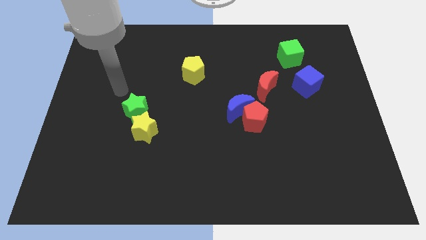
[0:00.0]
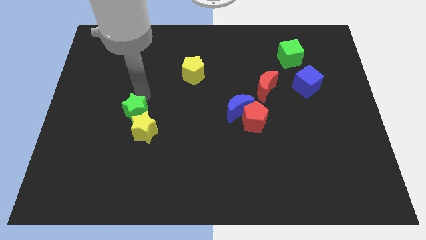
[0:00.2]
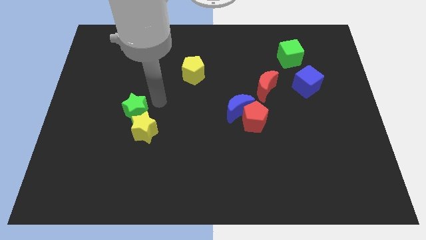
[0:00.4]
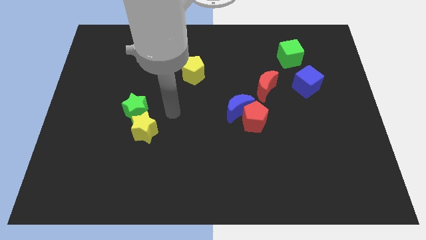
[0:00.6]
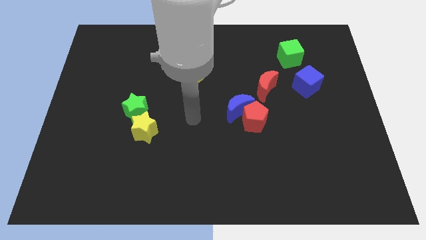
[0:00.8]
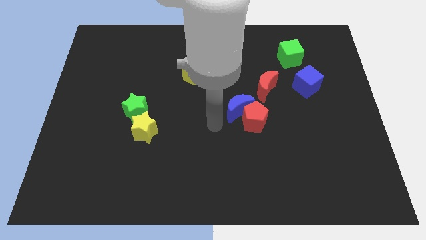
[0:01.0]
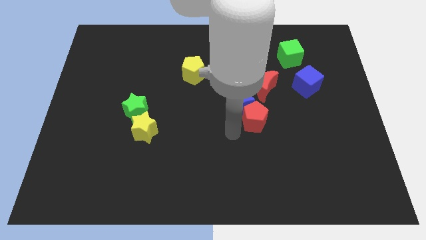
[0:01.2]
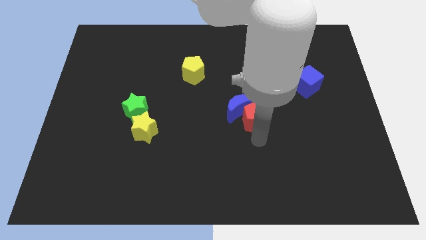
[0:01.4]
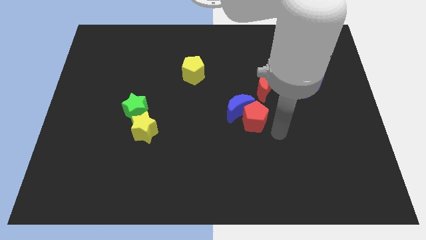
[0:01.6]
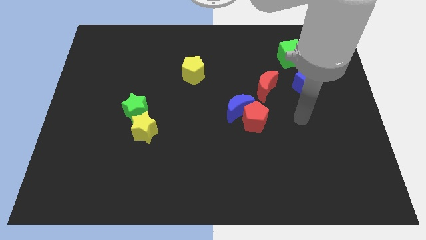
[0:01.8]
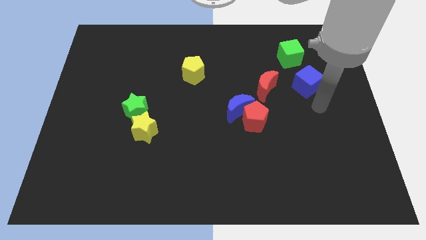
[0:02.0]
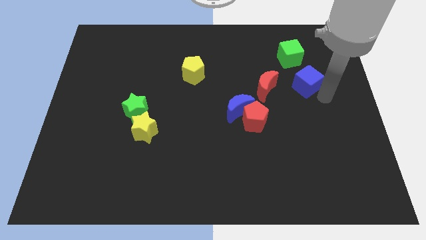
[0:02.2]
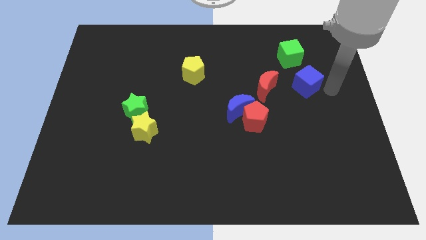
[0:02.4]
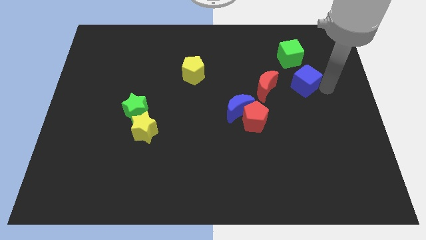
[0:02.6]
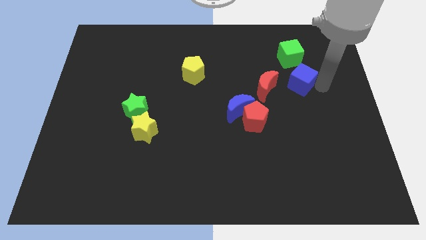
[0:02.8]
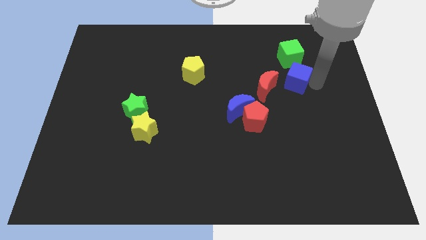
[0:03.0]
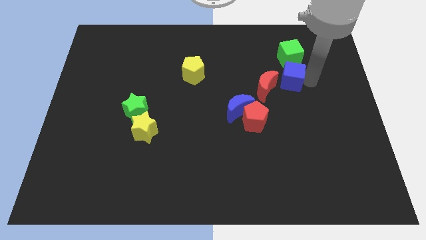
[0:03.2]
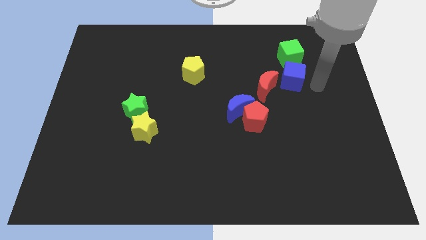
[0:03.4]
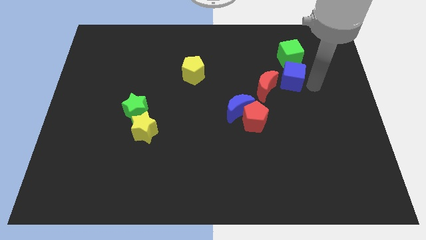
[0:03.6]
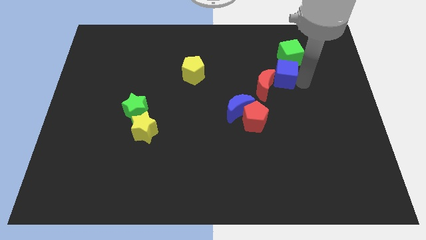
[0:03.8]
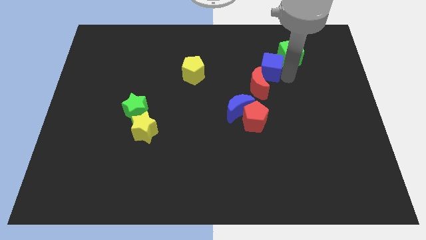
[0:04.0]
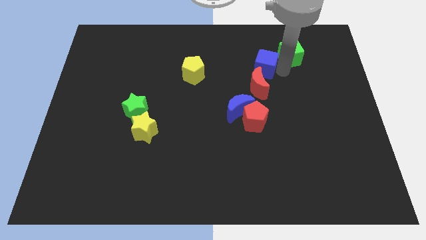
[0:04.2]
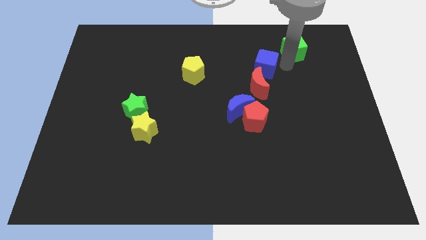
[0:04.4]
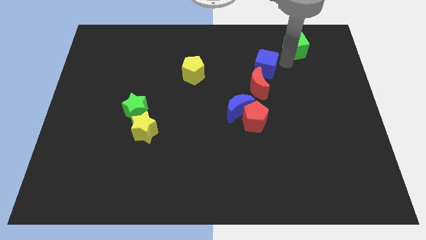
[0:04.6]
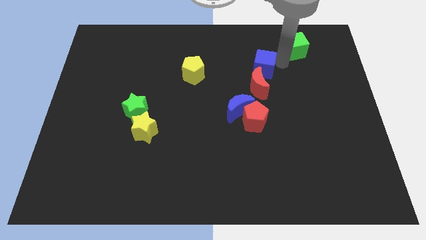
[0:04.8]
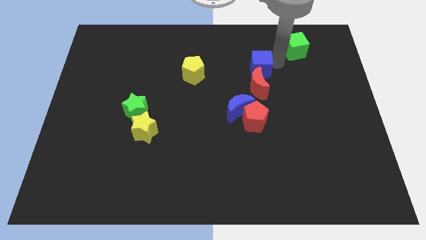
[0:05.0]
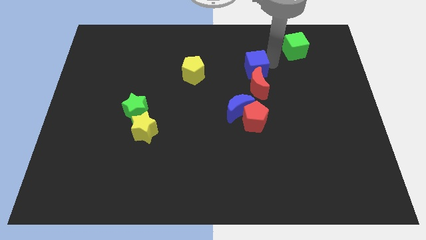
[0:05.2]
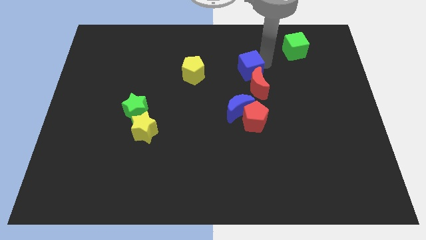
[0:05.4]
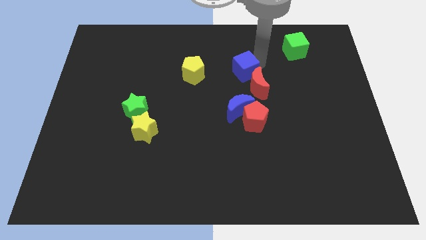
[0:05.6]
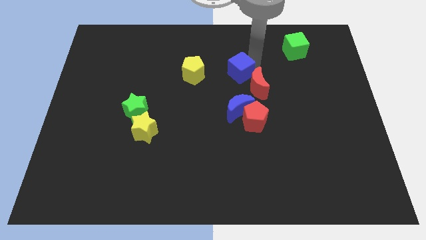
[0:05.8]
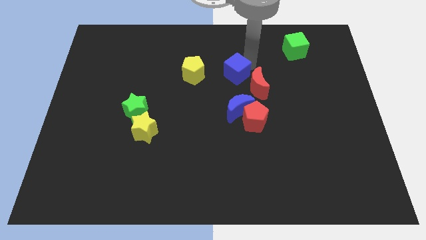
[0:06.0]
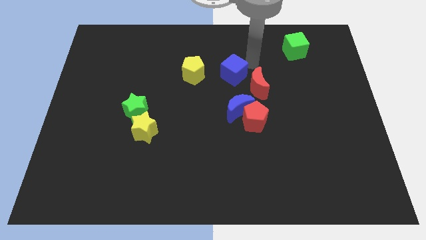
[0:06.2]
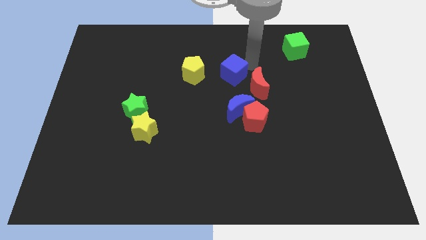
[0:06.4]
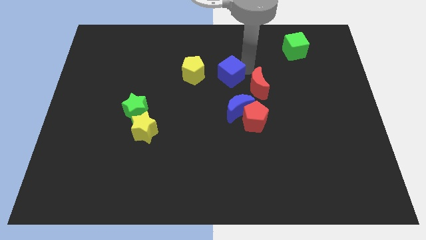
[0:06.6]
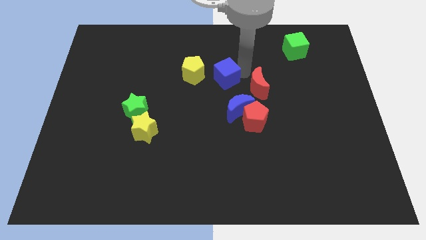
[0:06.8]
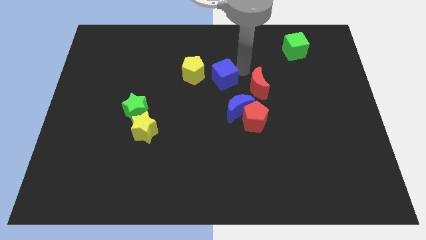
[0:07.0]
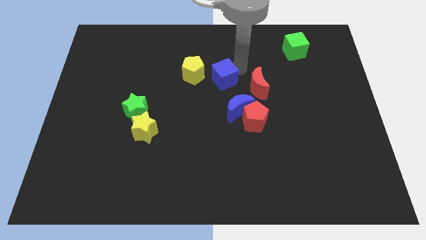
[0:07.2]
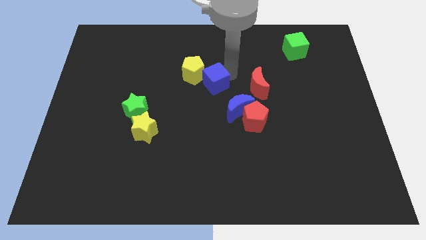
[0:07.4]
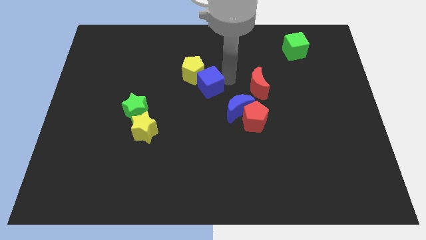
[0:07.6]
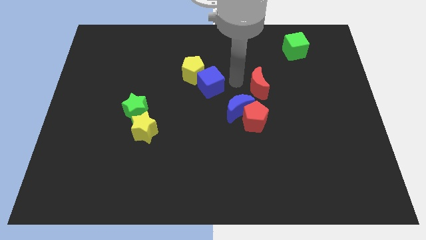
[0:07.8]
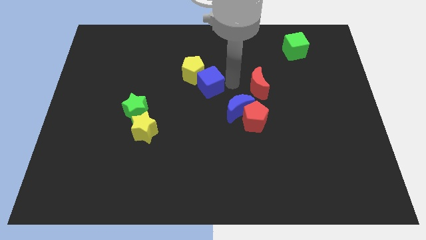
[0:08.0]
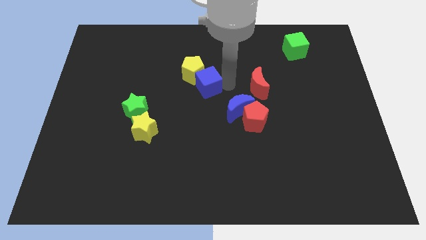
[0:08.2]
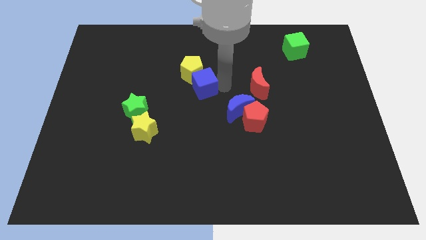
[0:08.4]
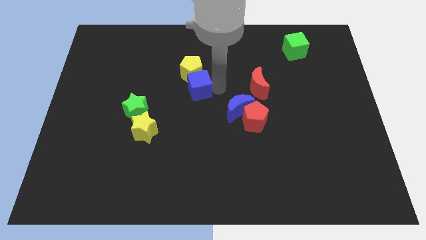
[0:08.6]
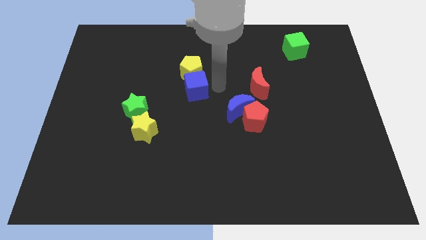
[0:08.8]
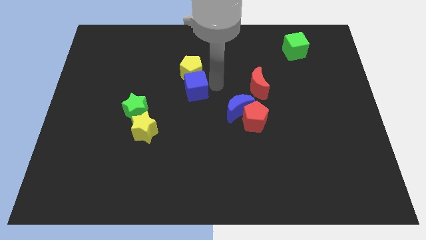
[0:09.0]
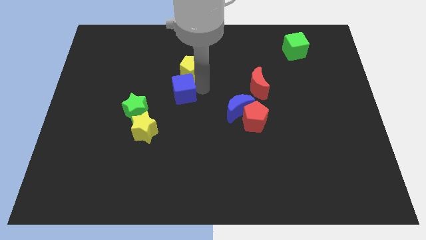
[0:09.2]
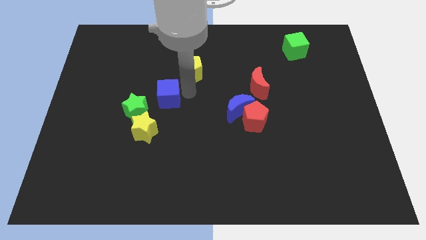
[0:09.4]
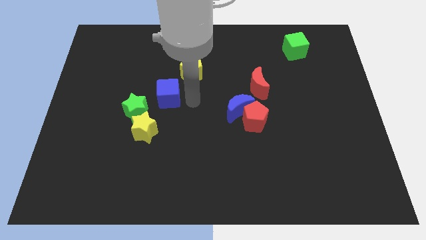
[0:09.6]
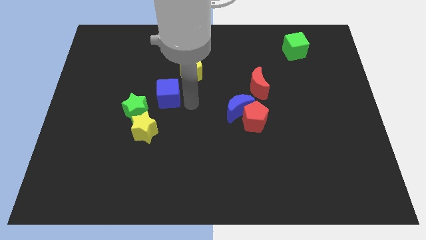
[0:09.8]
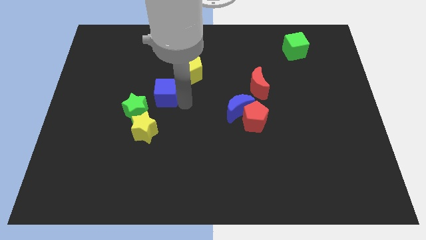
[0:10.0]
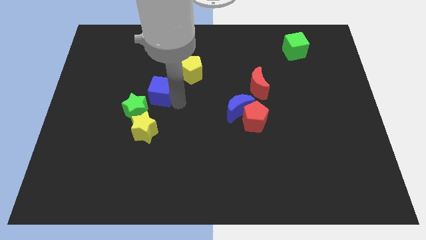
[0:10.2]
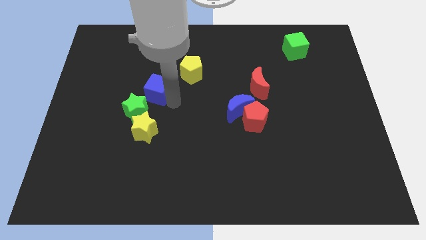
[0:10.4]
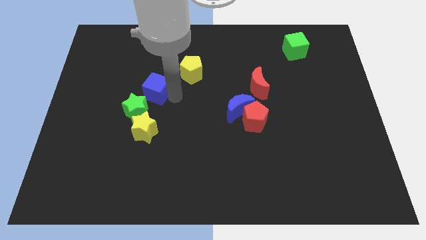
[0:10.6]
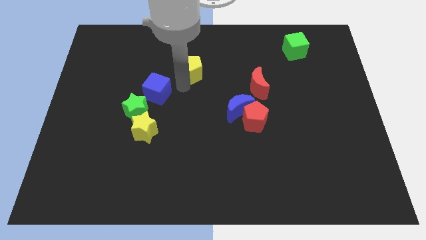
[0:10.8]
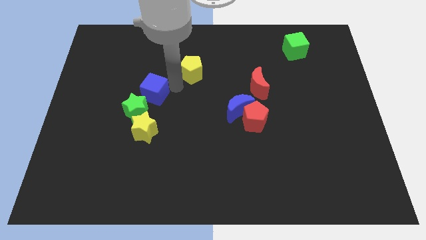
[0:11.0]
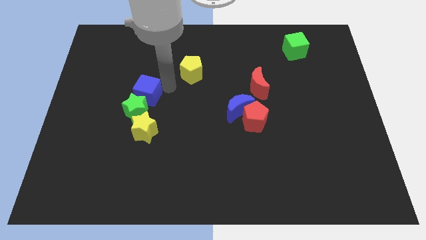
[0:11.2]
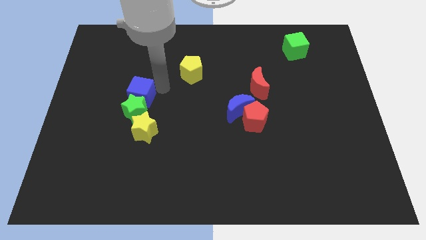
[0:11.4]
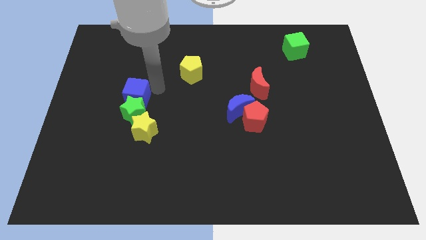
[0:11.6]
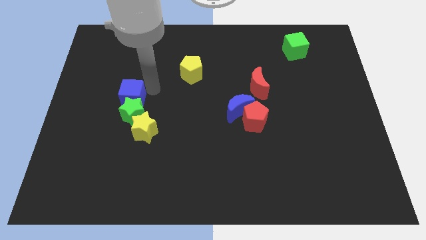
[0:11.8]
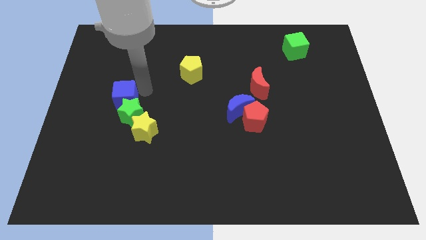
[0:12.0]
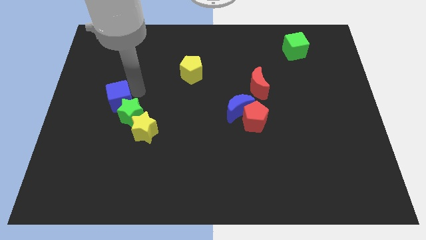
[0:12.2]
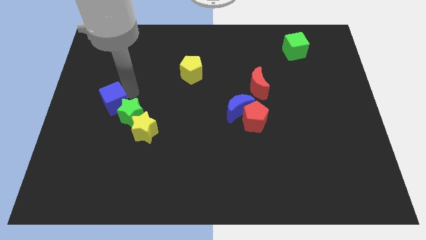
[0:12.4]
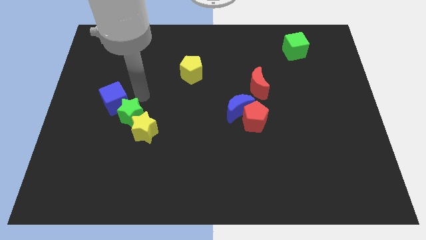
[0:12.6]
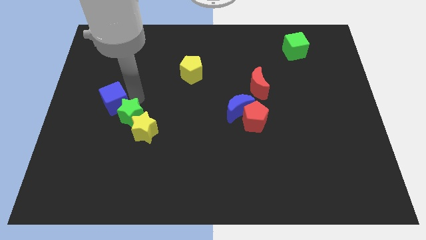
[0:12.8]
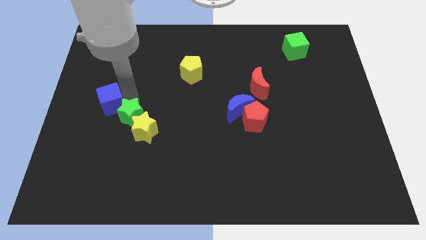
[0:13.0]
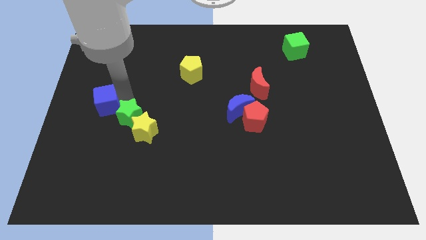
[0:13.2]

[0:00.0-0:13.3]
slide the blue cube to the left side of the board
